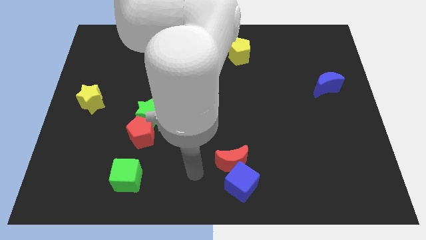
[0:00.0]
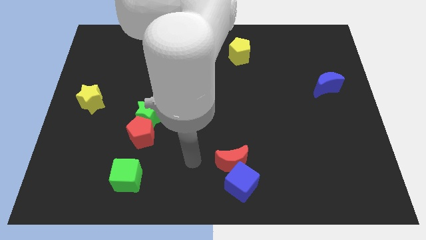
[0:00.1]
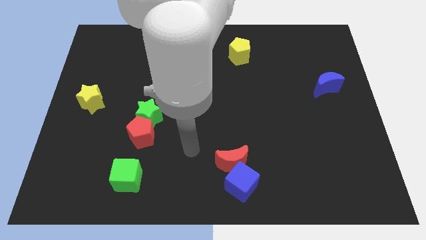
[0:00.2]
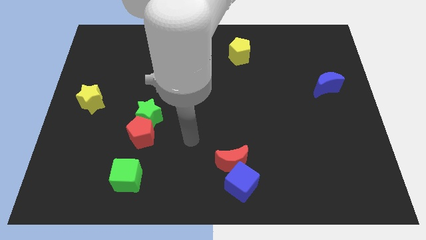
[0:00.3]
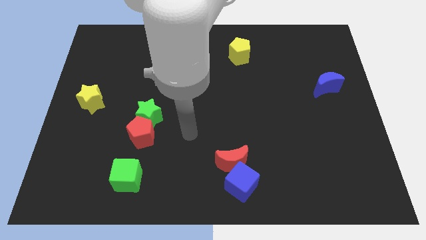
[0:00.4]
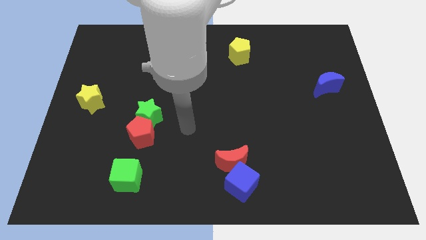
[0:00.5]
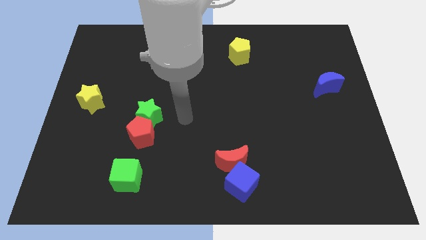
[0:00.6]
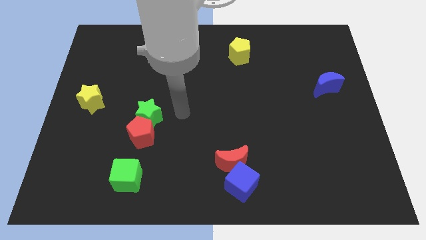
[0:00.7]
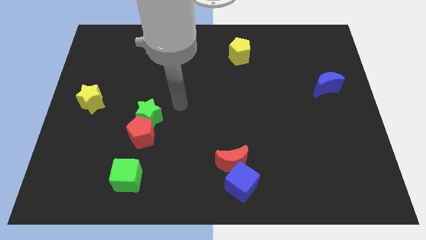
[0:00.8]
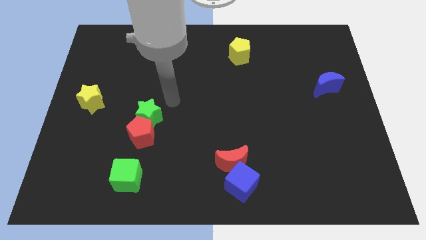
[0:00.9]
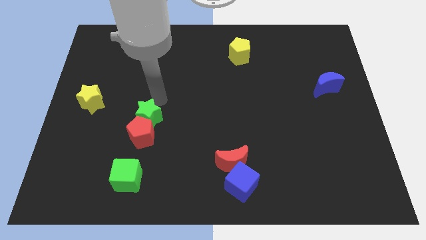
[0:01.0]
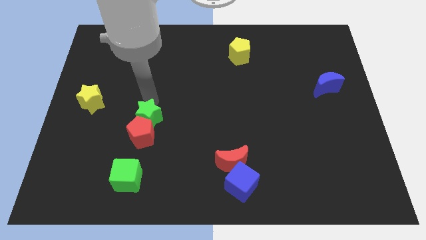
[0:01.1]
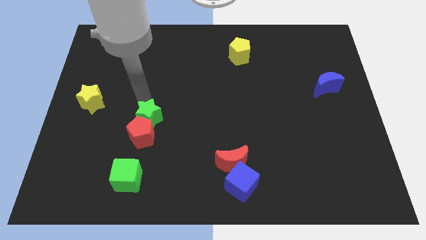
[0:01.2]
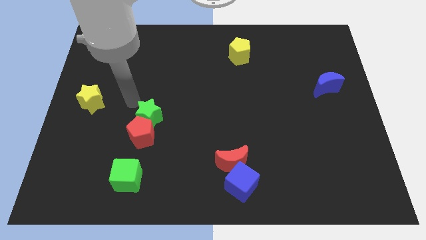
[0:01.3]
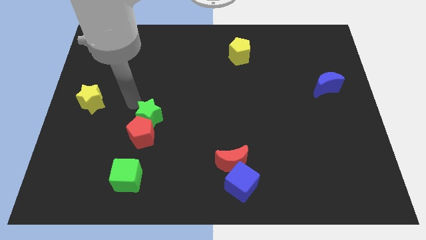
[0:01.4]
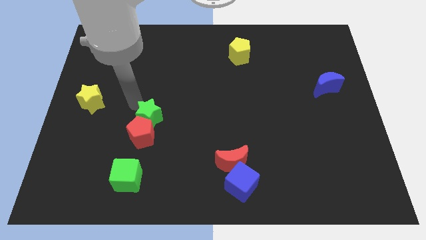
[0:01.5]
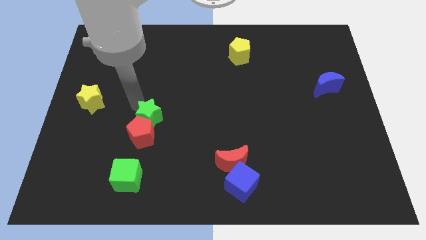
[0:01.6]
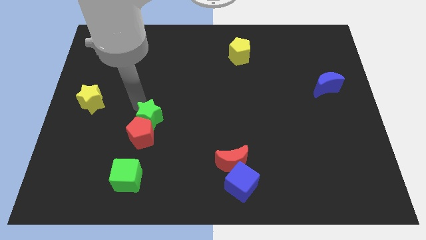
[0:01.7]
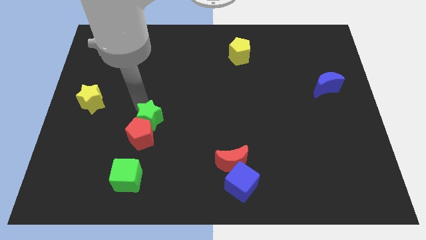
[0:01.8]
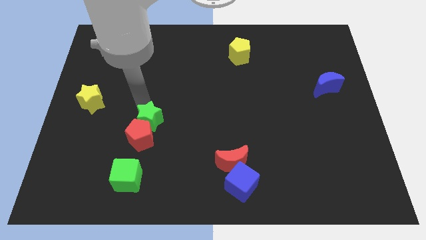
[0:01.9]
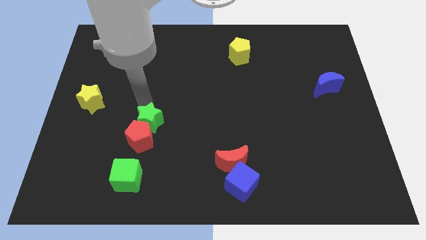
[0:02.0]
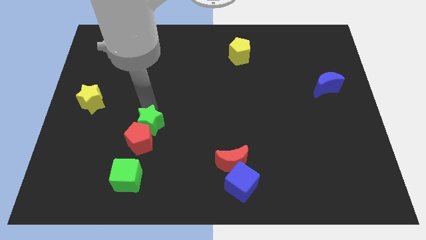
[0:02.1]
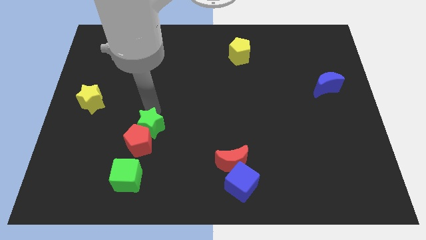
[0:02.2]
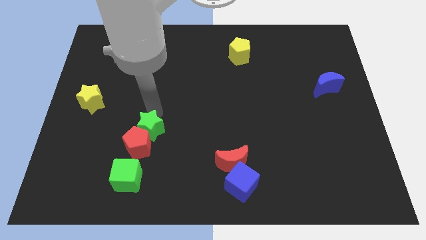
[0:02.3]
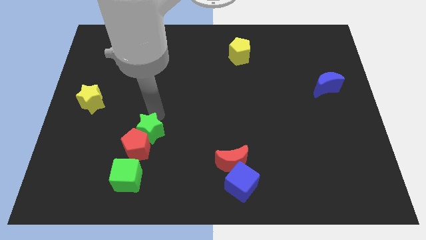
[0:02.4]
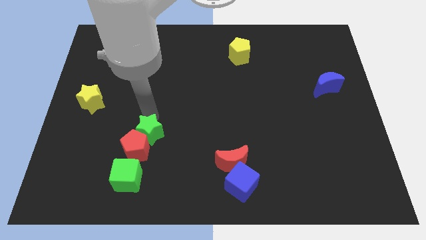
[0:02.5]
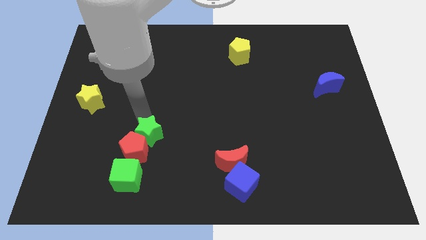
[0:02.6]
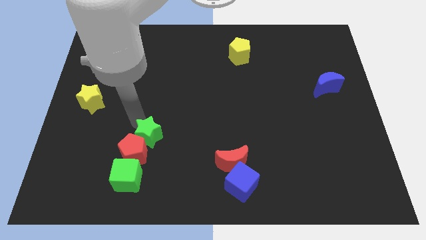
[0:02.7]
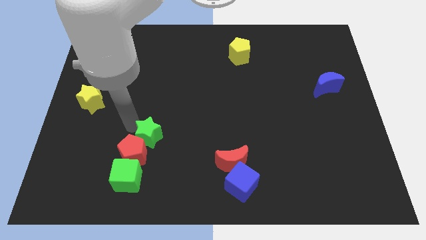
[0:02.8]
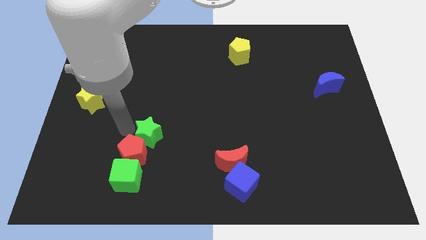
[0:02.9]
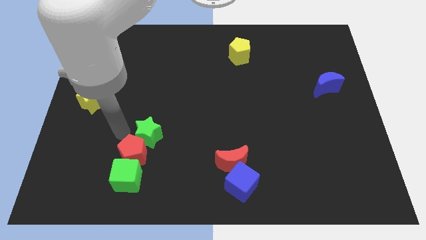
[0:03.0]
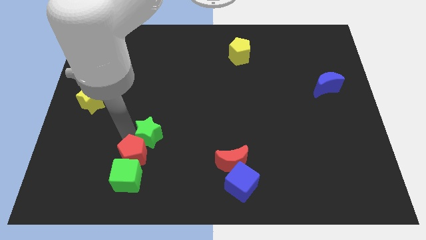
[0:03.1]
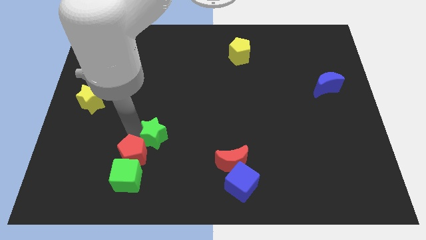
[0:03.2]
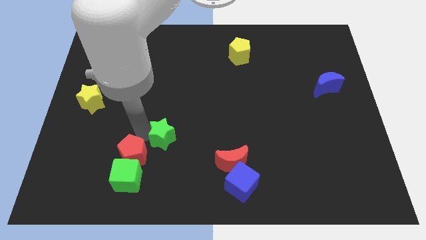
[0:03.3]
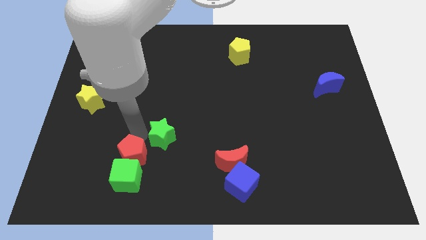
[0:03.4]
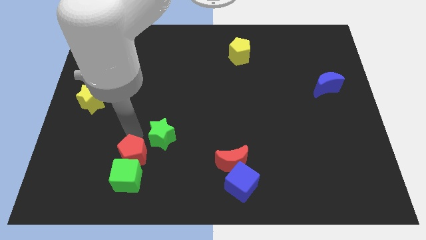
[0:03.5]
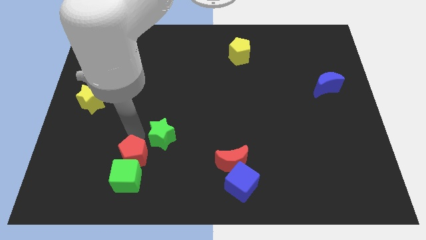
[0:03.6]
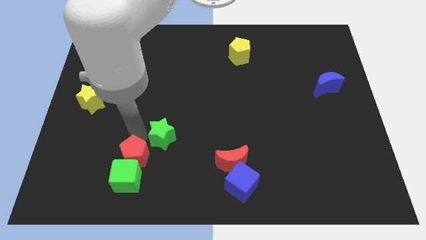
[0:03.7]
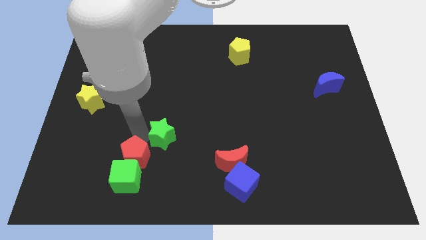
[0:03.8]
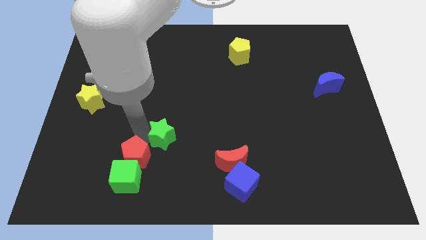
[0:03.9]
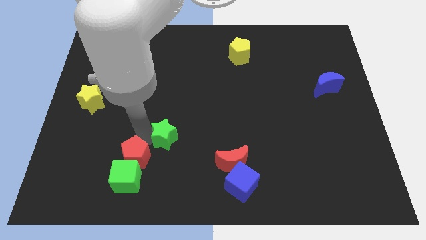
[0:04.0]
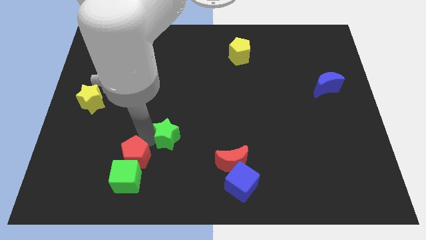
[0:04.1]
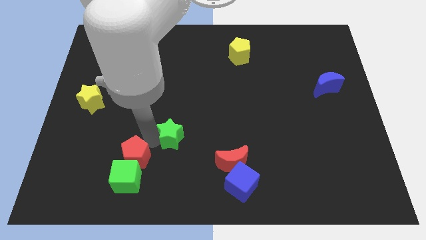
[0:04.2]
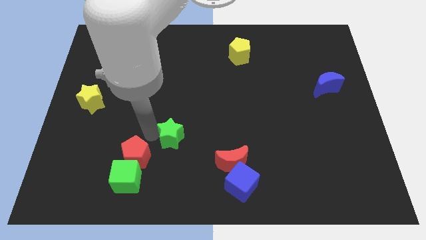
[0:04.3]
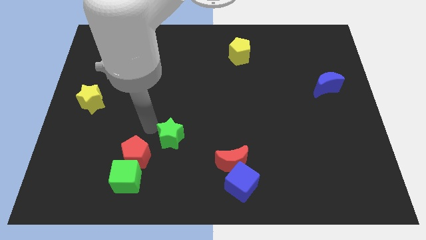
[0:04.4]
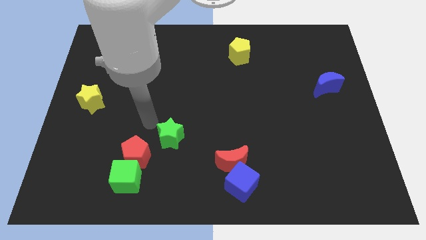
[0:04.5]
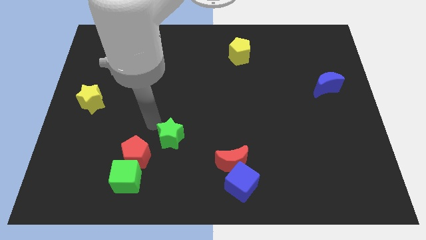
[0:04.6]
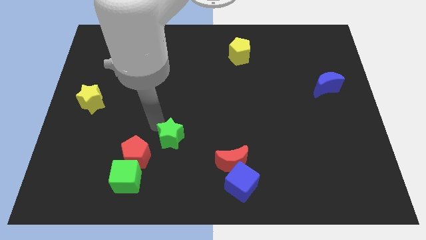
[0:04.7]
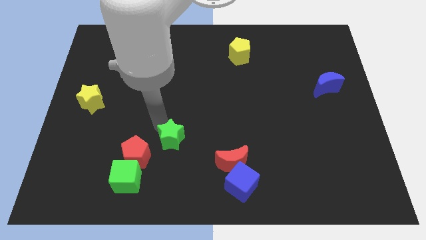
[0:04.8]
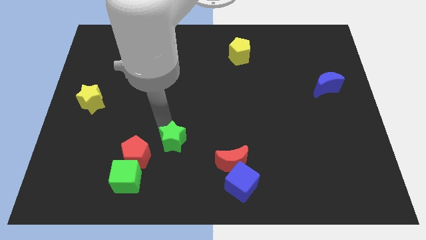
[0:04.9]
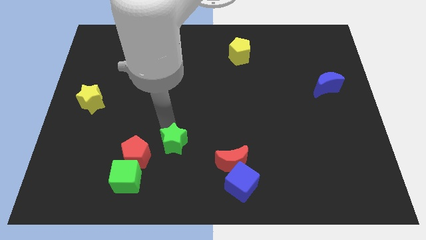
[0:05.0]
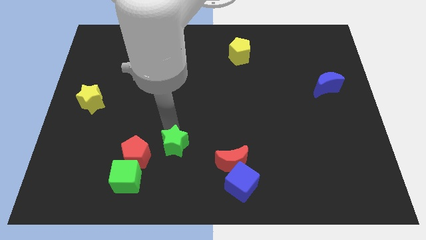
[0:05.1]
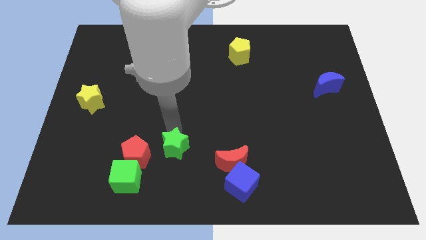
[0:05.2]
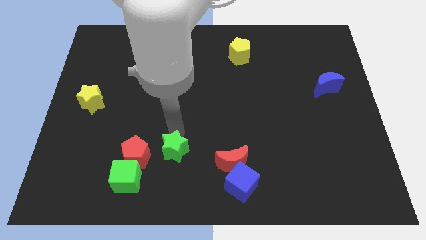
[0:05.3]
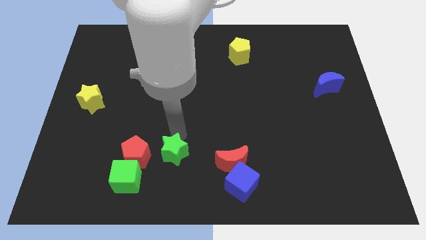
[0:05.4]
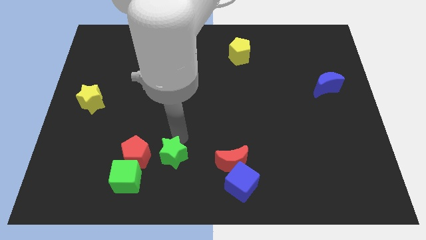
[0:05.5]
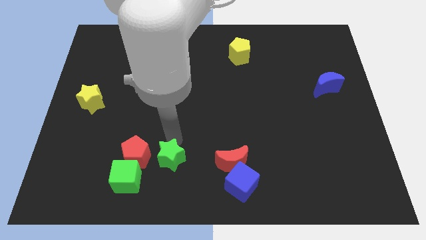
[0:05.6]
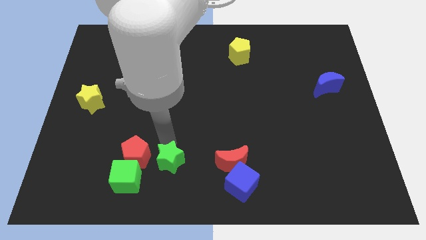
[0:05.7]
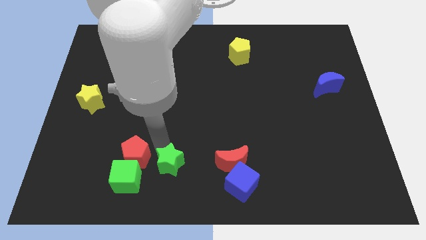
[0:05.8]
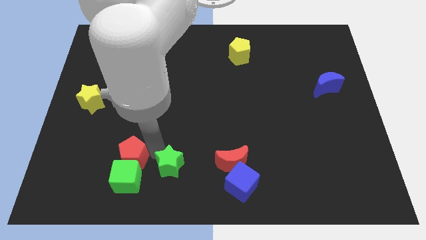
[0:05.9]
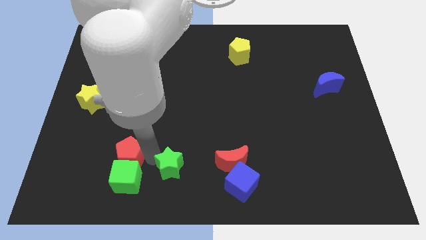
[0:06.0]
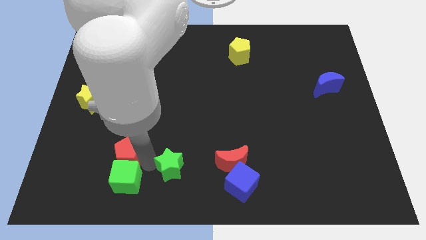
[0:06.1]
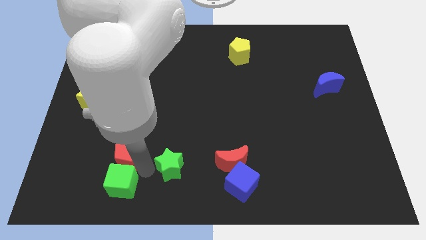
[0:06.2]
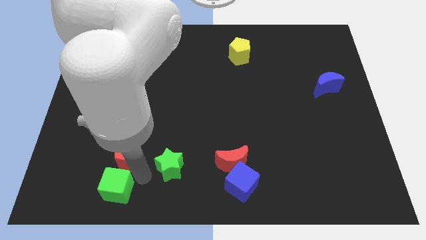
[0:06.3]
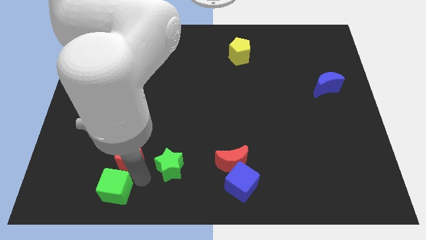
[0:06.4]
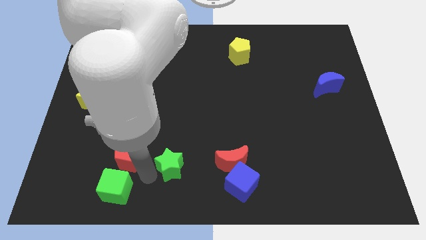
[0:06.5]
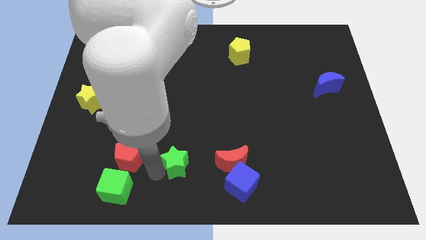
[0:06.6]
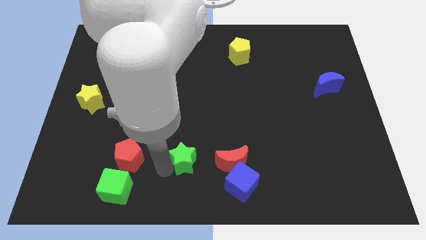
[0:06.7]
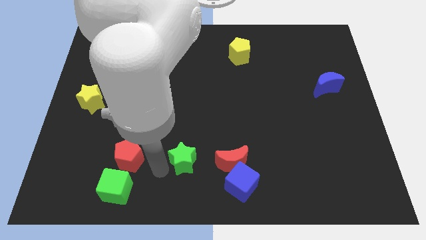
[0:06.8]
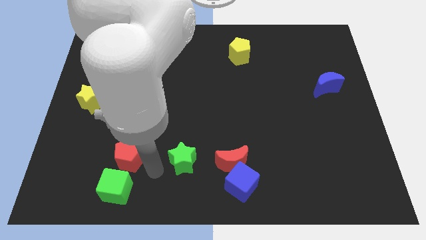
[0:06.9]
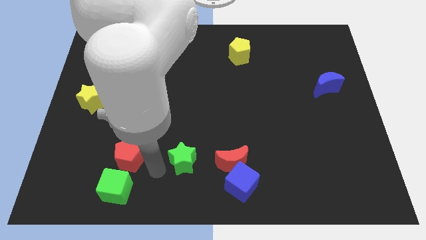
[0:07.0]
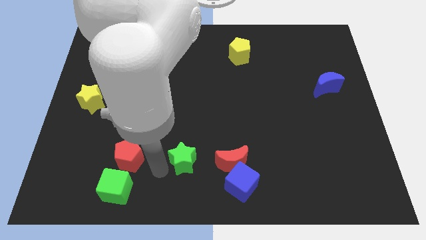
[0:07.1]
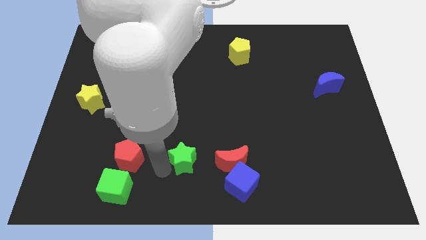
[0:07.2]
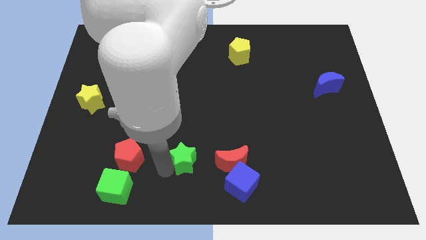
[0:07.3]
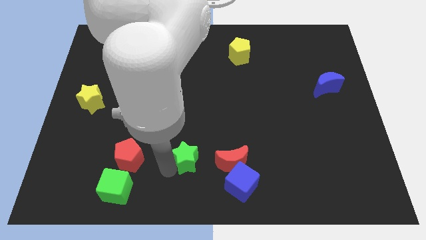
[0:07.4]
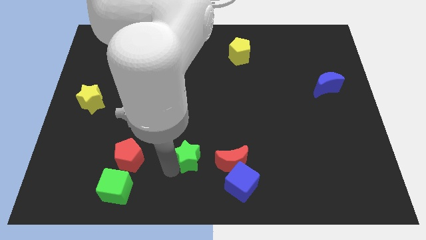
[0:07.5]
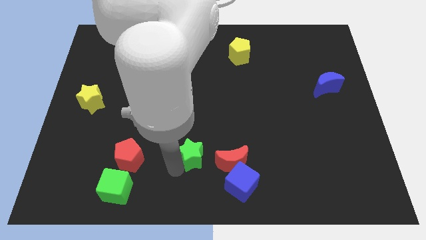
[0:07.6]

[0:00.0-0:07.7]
put the green star to the top left of the blue cube
